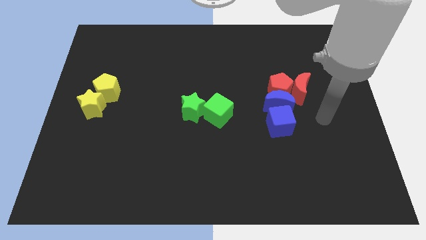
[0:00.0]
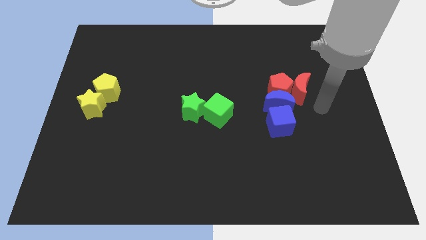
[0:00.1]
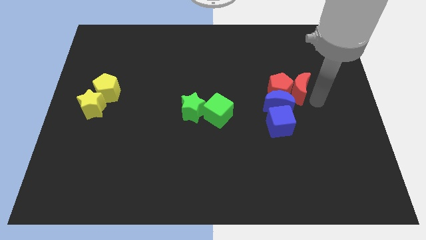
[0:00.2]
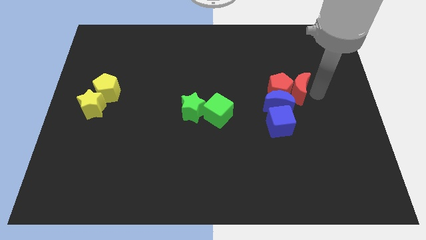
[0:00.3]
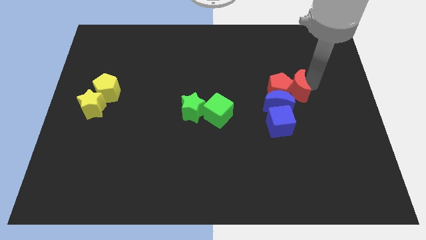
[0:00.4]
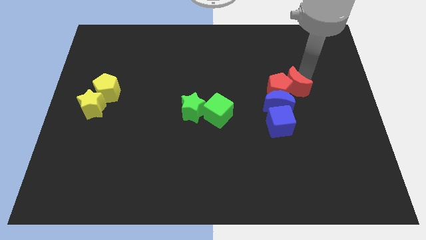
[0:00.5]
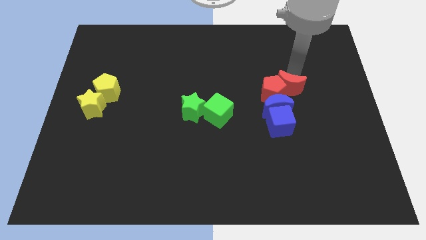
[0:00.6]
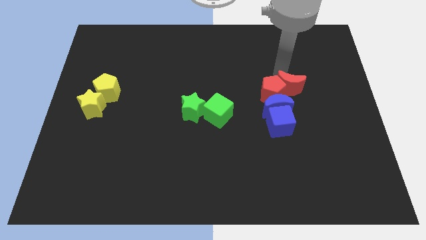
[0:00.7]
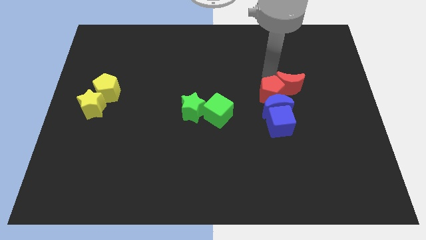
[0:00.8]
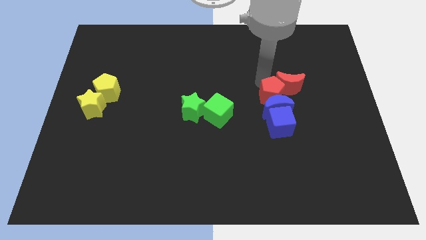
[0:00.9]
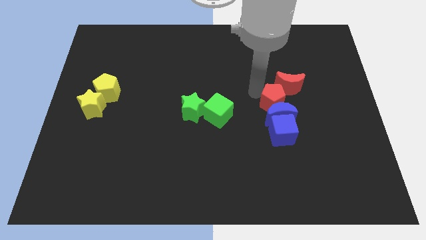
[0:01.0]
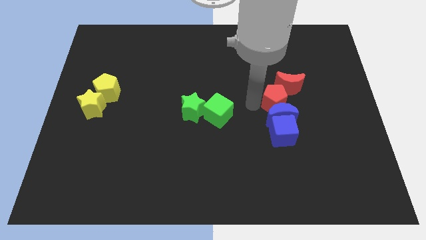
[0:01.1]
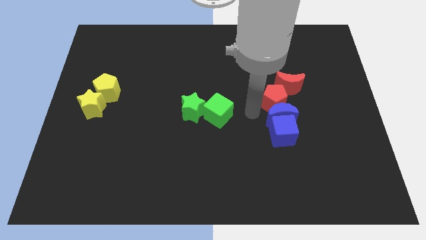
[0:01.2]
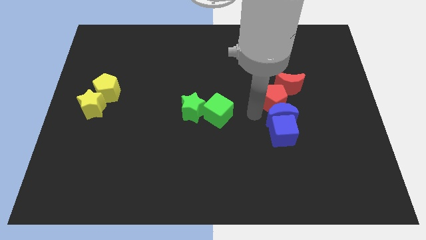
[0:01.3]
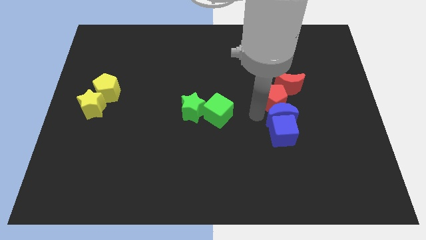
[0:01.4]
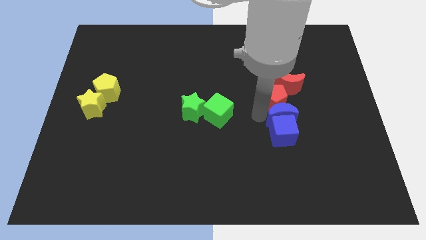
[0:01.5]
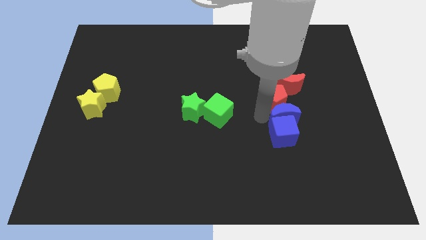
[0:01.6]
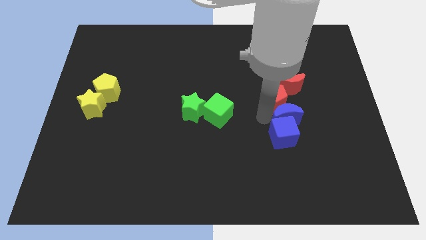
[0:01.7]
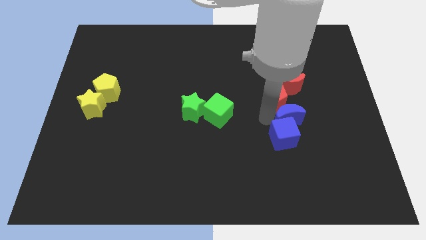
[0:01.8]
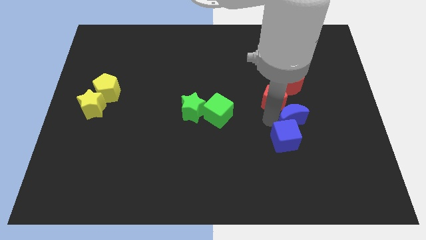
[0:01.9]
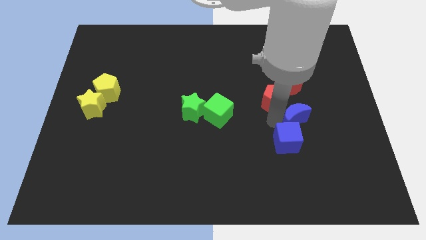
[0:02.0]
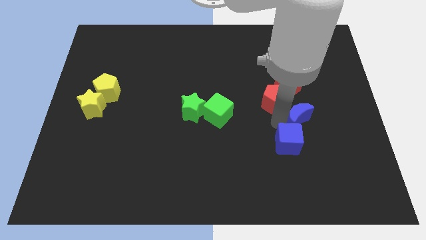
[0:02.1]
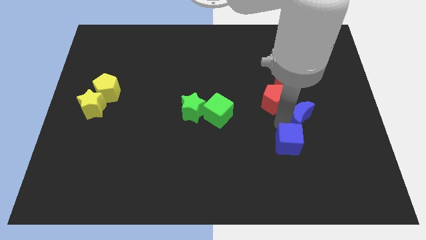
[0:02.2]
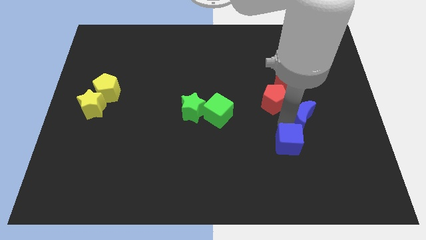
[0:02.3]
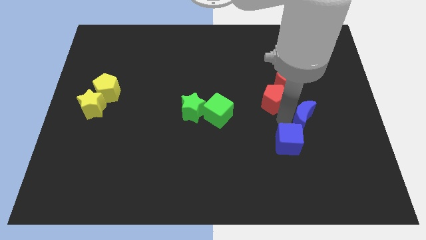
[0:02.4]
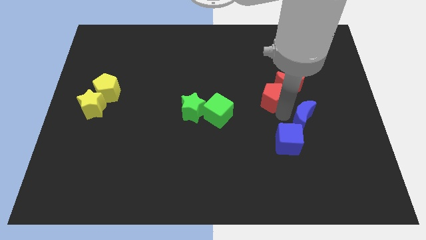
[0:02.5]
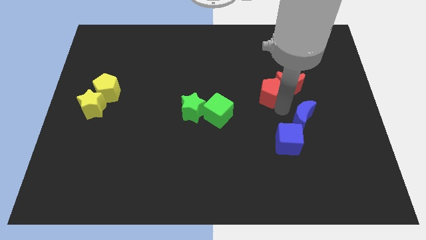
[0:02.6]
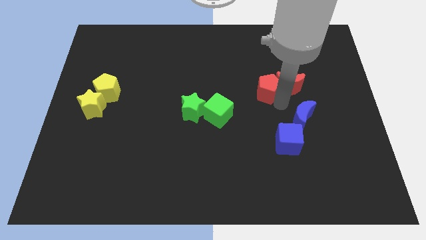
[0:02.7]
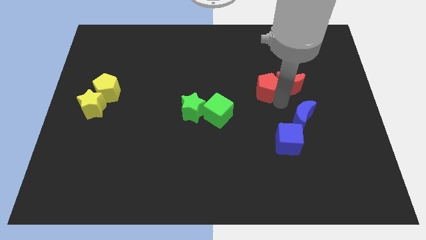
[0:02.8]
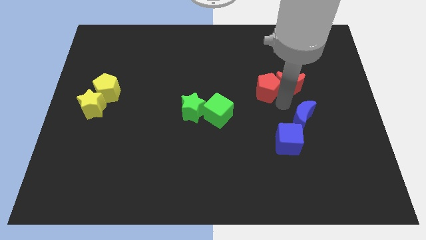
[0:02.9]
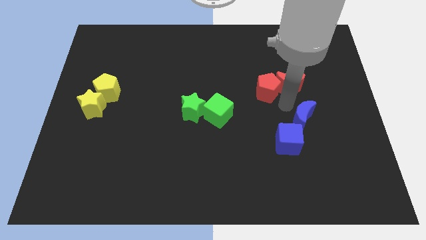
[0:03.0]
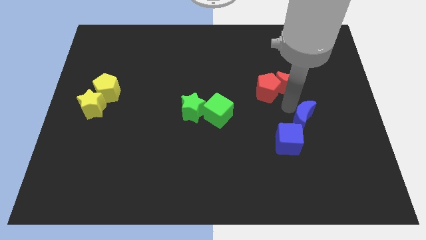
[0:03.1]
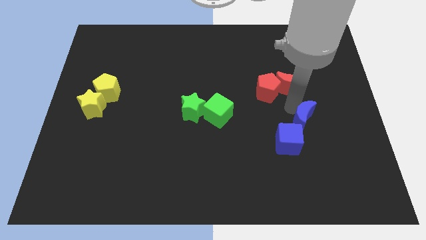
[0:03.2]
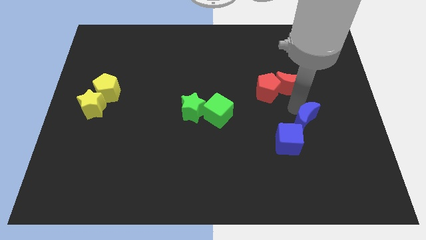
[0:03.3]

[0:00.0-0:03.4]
move the blue moon somewhat downwards and right diagonally

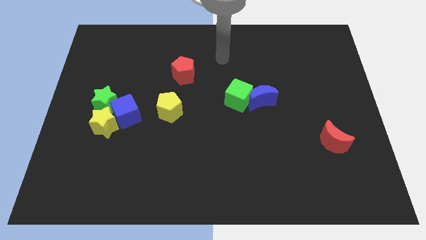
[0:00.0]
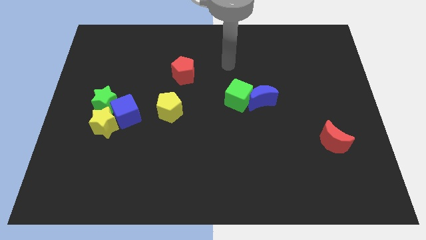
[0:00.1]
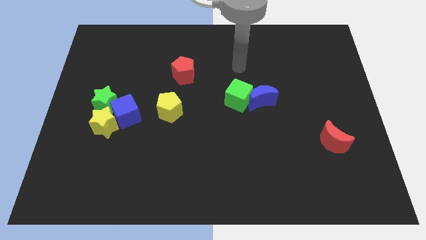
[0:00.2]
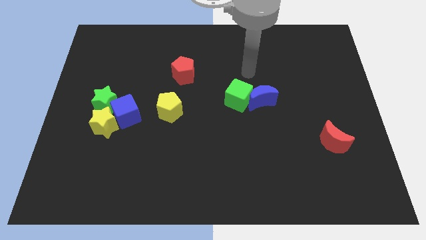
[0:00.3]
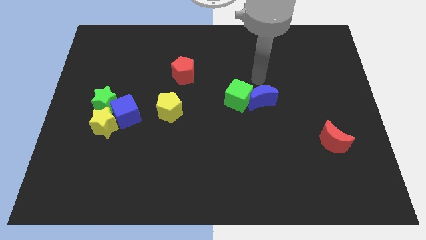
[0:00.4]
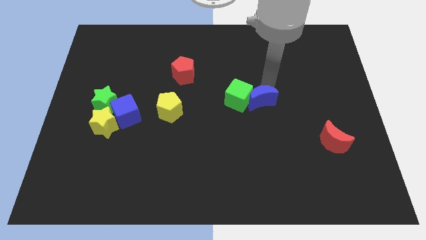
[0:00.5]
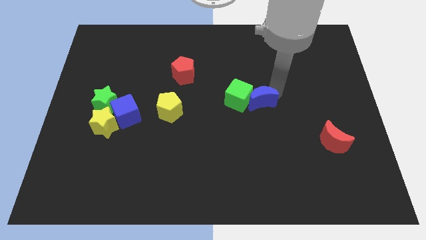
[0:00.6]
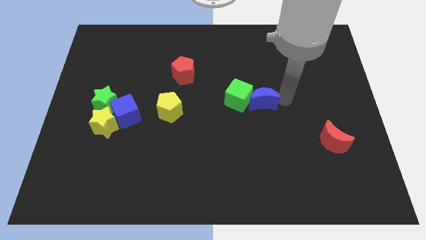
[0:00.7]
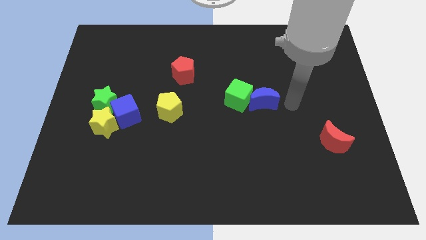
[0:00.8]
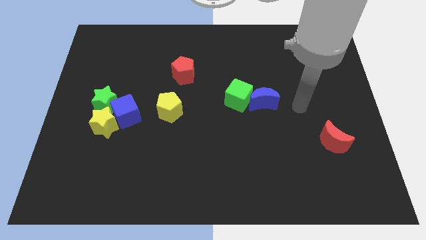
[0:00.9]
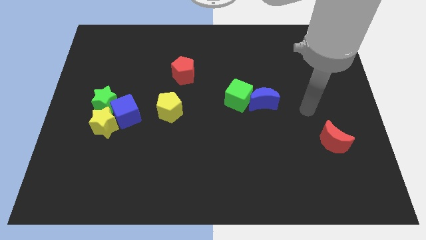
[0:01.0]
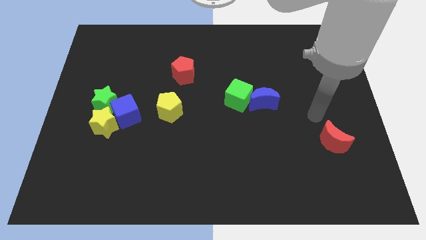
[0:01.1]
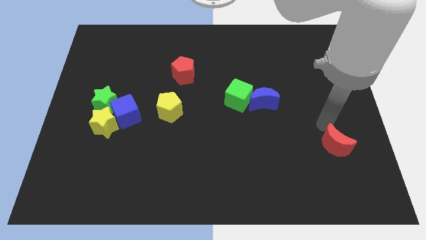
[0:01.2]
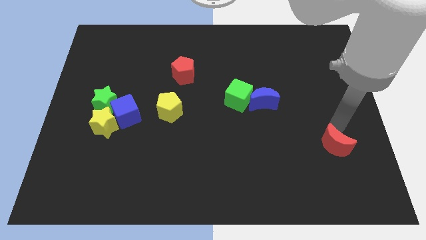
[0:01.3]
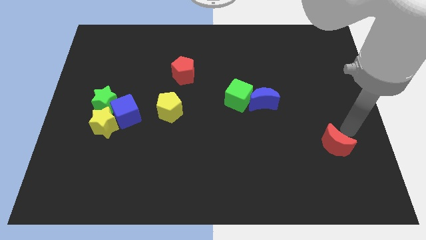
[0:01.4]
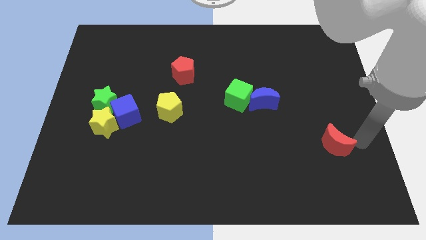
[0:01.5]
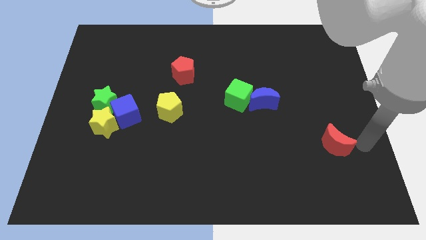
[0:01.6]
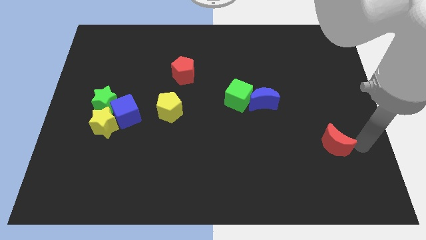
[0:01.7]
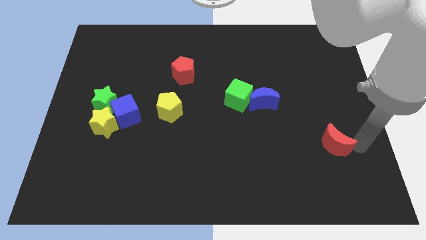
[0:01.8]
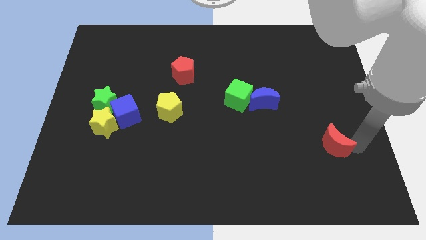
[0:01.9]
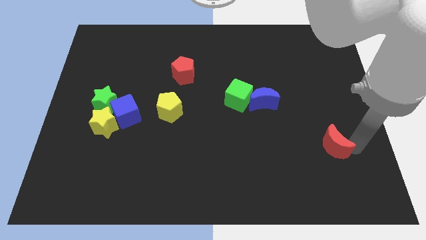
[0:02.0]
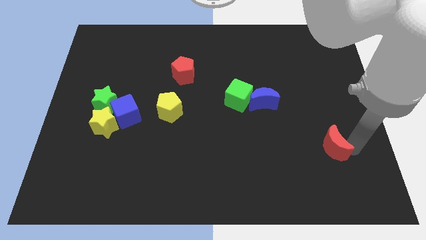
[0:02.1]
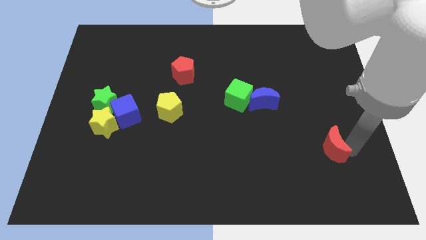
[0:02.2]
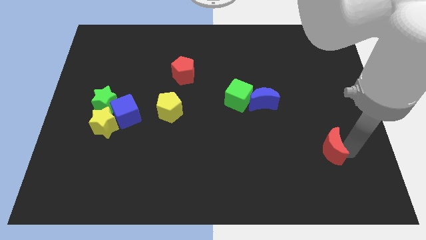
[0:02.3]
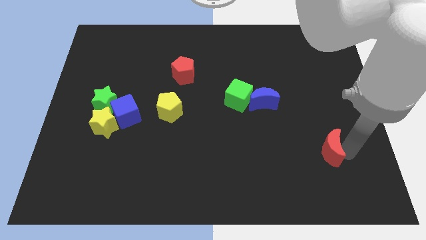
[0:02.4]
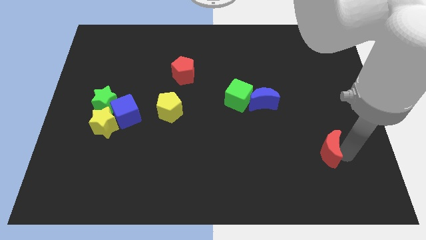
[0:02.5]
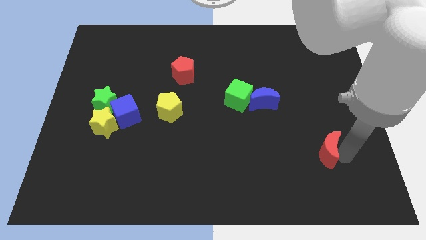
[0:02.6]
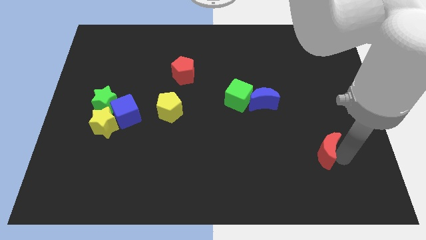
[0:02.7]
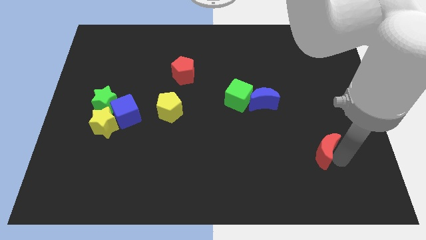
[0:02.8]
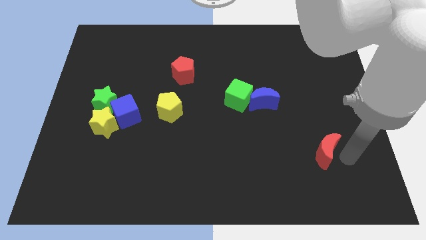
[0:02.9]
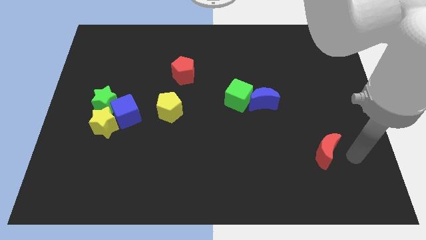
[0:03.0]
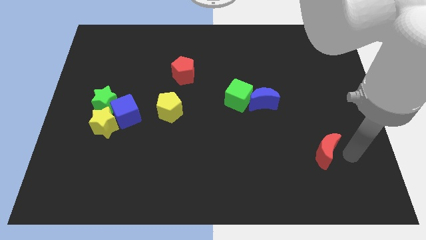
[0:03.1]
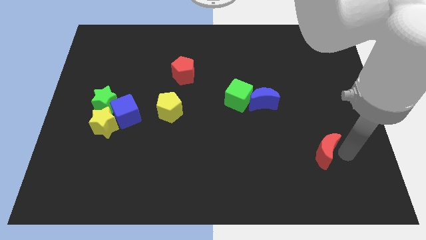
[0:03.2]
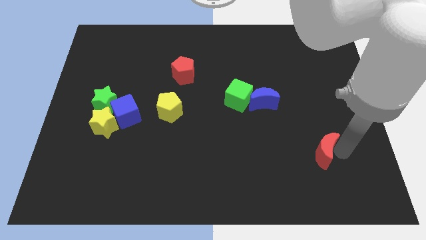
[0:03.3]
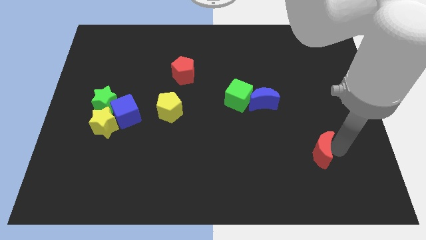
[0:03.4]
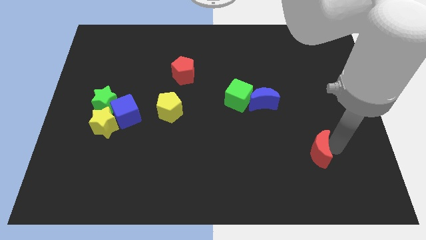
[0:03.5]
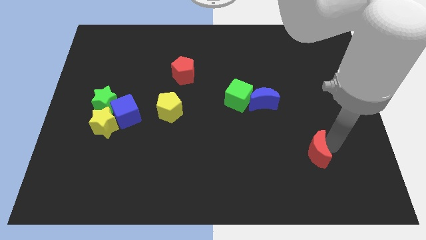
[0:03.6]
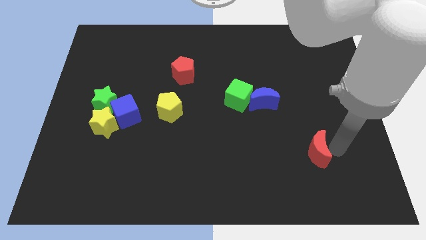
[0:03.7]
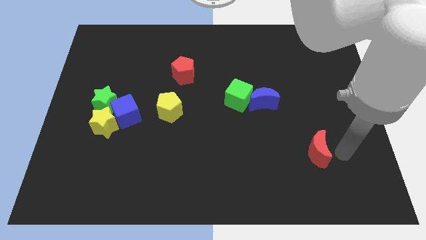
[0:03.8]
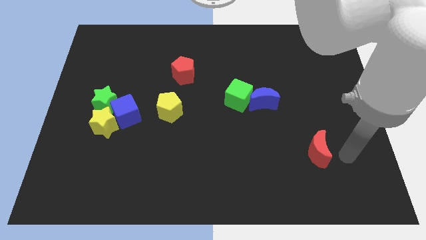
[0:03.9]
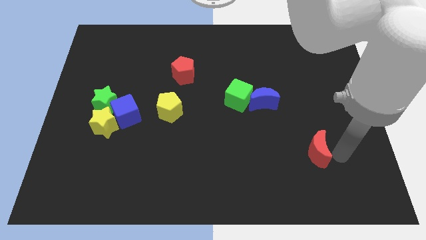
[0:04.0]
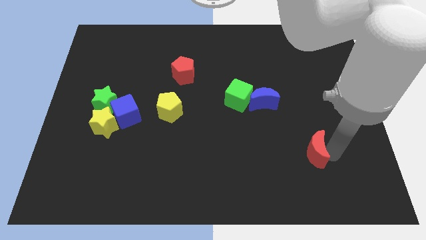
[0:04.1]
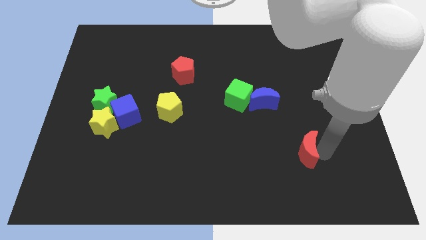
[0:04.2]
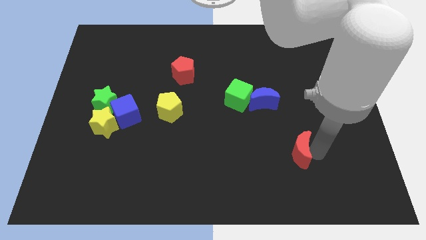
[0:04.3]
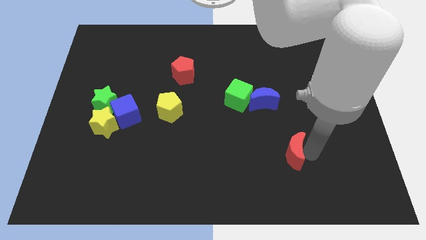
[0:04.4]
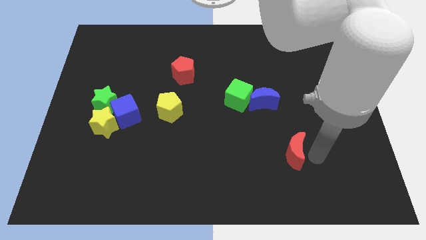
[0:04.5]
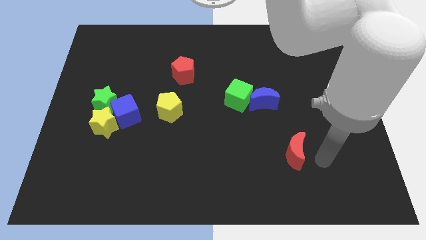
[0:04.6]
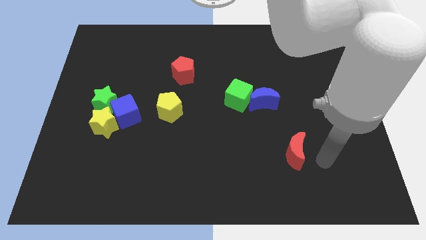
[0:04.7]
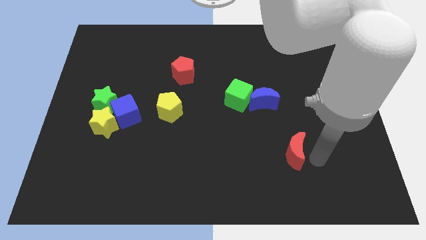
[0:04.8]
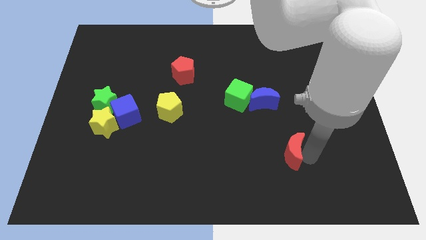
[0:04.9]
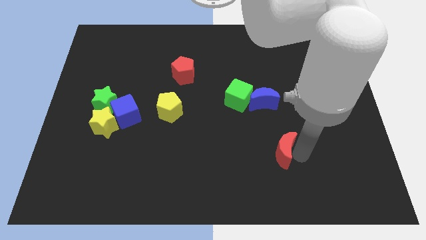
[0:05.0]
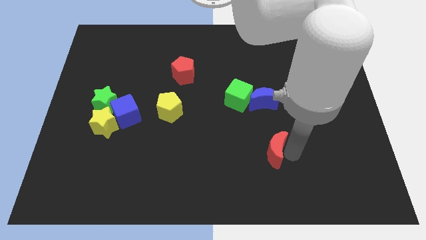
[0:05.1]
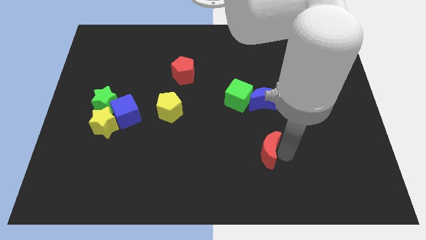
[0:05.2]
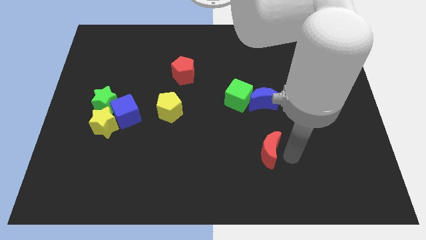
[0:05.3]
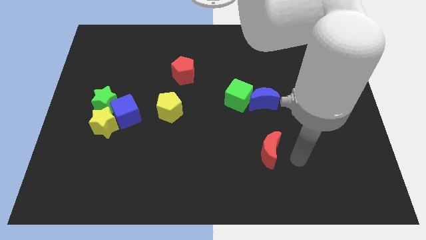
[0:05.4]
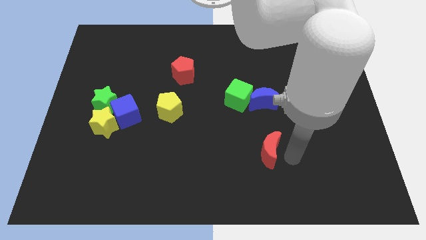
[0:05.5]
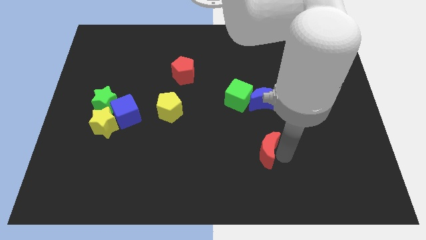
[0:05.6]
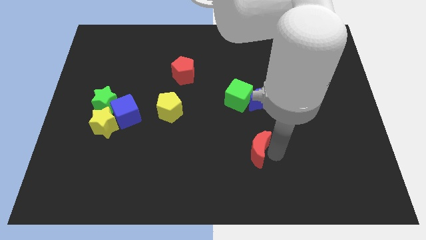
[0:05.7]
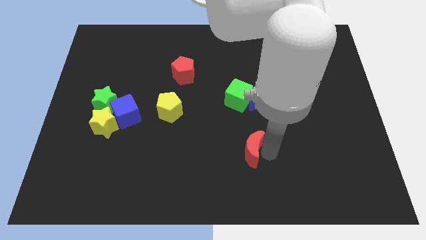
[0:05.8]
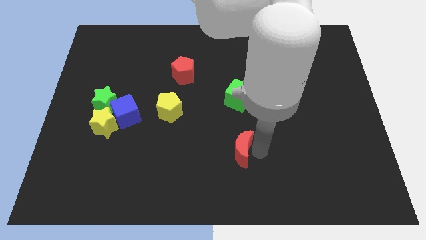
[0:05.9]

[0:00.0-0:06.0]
push the red moon left
